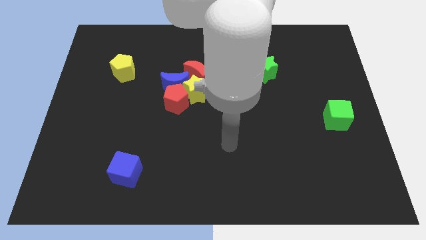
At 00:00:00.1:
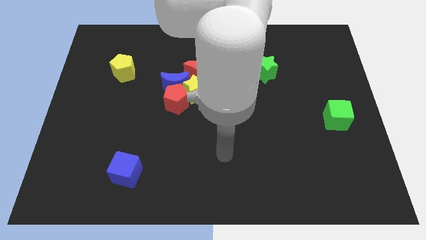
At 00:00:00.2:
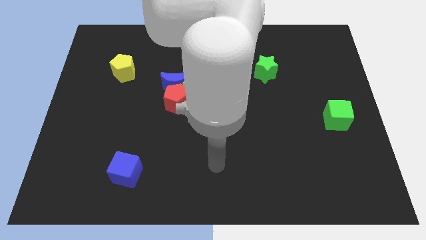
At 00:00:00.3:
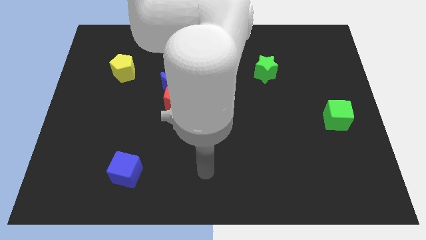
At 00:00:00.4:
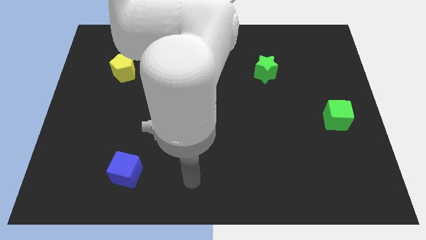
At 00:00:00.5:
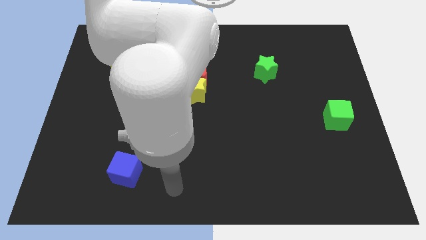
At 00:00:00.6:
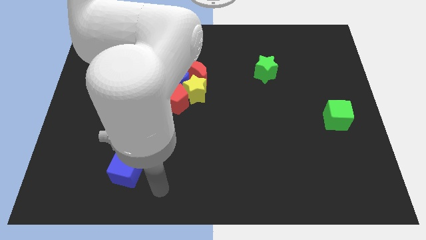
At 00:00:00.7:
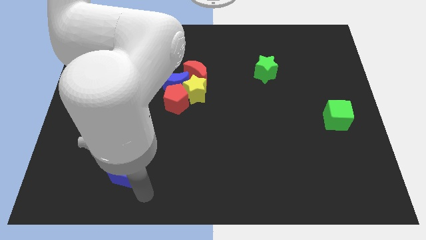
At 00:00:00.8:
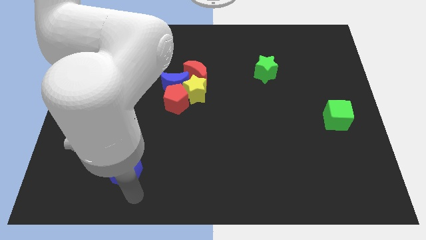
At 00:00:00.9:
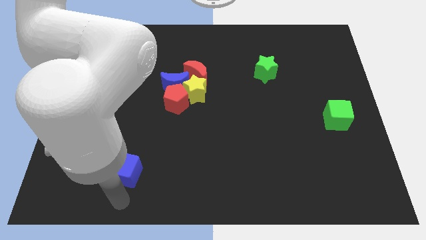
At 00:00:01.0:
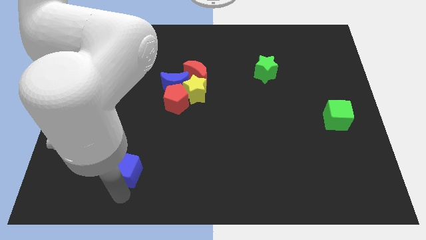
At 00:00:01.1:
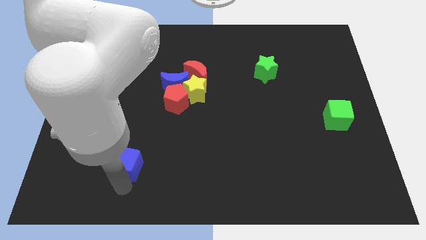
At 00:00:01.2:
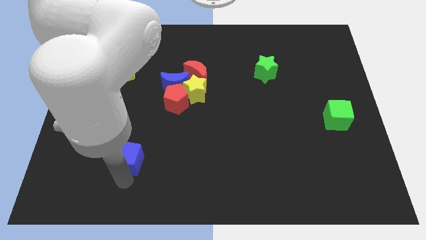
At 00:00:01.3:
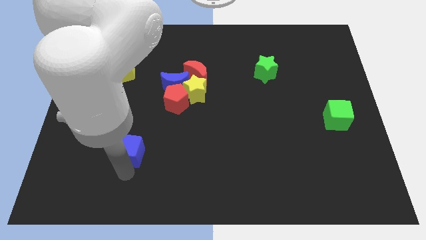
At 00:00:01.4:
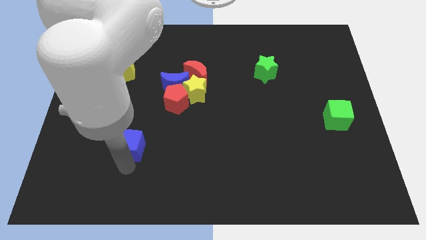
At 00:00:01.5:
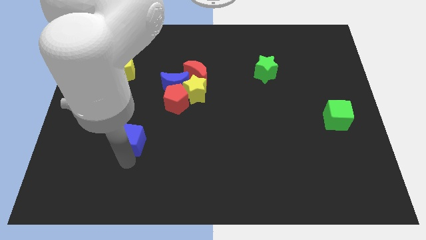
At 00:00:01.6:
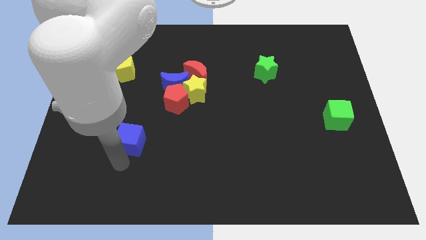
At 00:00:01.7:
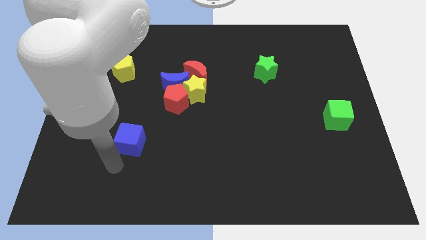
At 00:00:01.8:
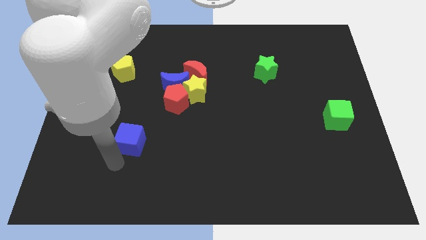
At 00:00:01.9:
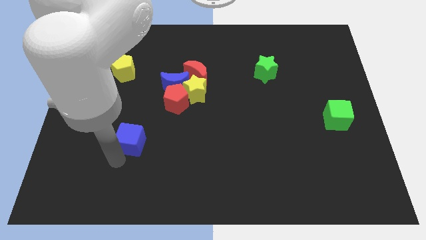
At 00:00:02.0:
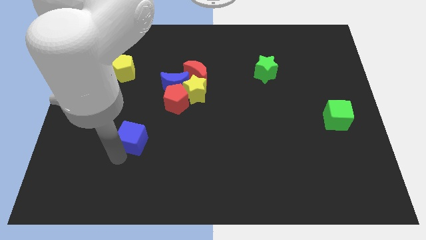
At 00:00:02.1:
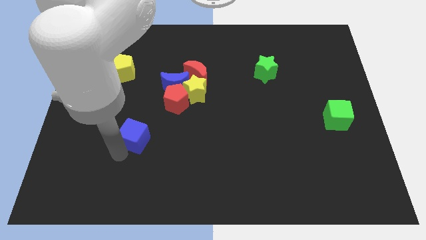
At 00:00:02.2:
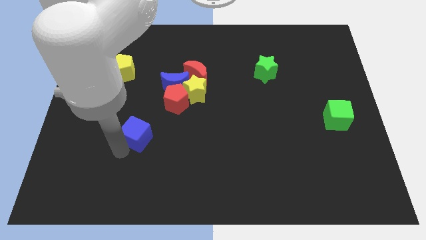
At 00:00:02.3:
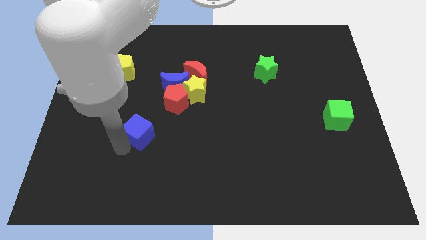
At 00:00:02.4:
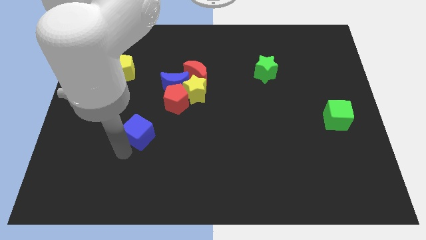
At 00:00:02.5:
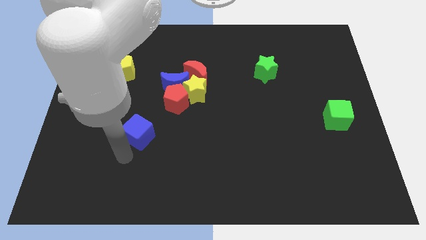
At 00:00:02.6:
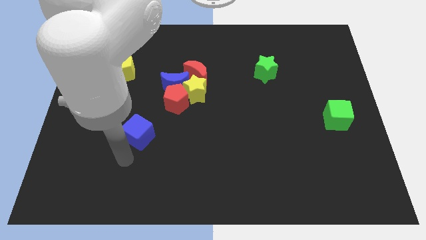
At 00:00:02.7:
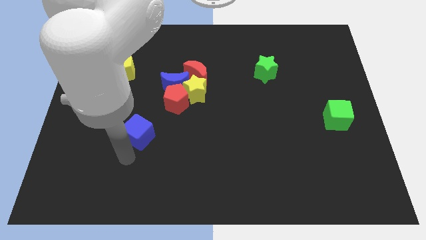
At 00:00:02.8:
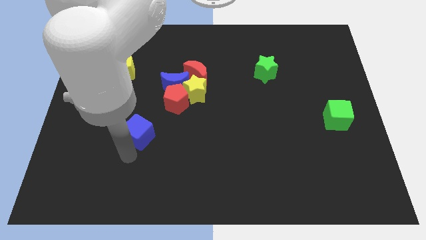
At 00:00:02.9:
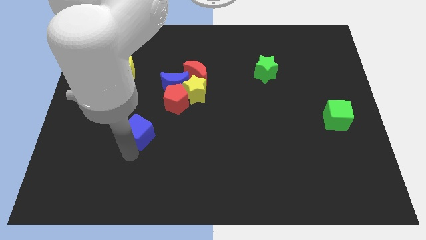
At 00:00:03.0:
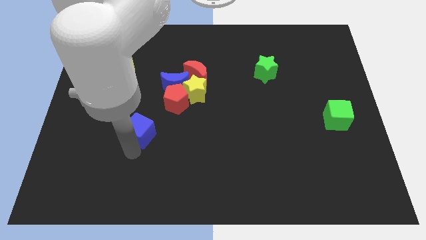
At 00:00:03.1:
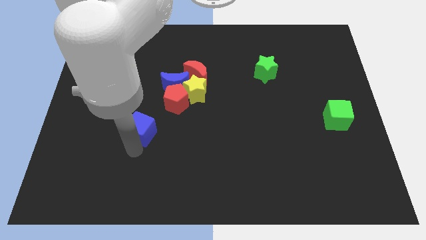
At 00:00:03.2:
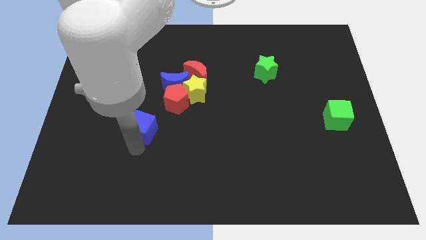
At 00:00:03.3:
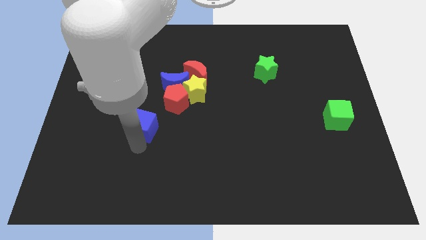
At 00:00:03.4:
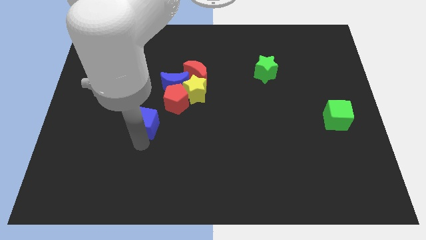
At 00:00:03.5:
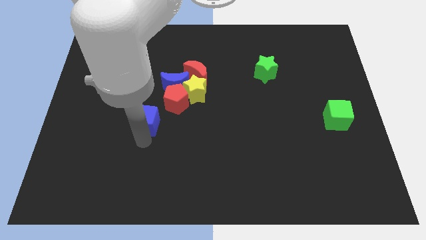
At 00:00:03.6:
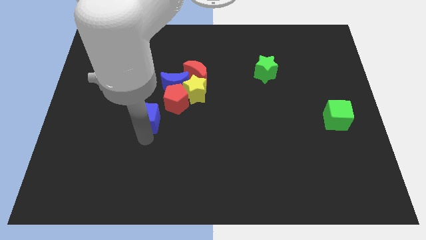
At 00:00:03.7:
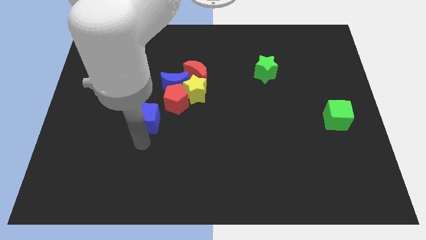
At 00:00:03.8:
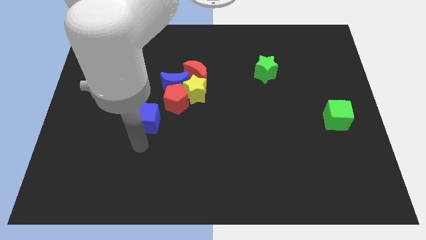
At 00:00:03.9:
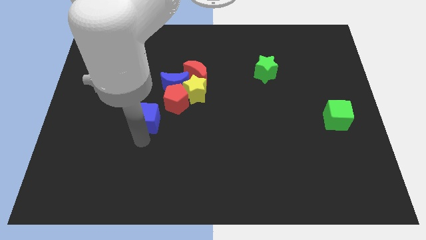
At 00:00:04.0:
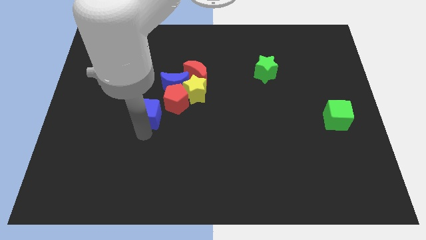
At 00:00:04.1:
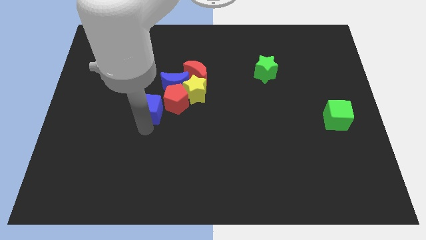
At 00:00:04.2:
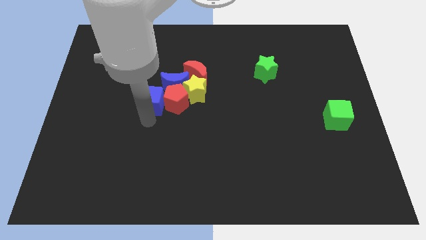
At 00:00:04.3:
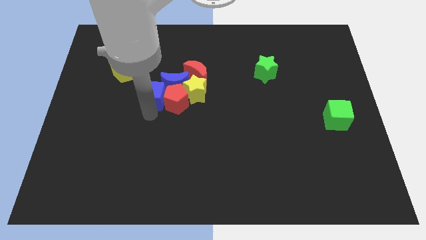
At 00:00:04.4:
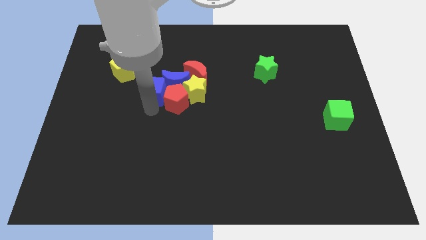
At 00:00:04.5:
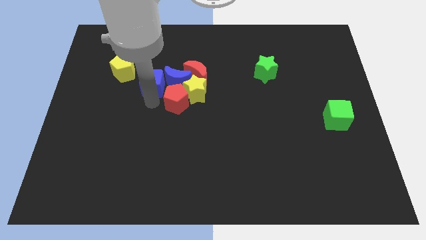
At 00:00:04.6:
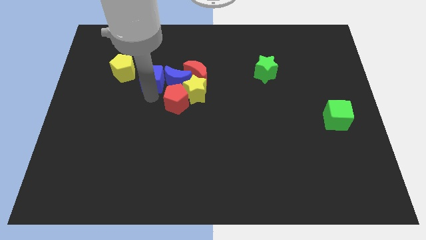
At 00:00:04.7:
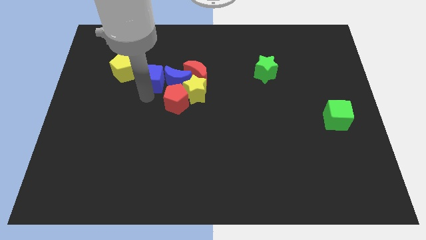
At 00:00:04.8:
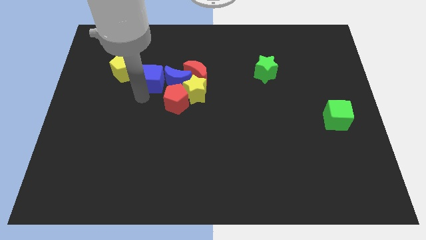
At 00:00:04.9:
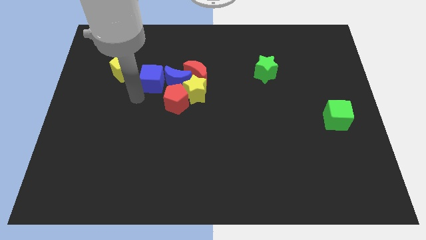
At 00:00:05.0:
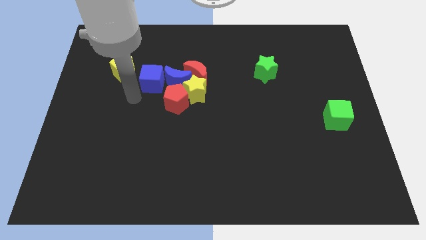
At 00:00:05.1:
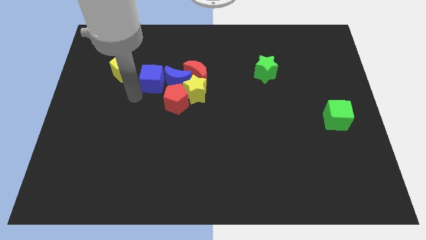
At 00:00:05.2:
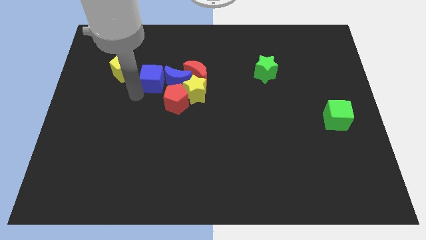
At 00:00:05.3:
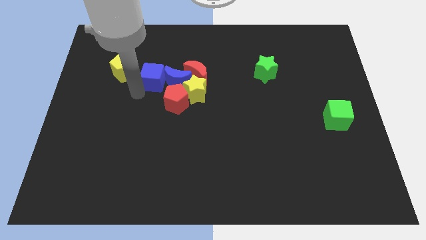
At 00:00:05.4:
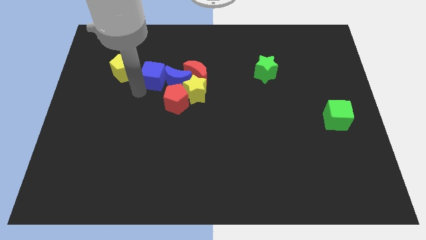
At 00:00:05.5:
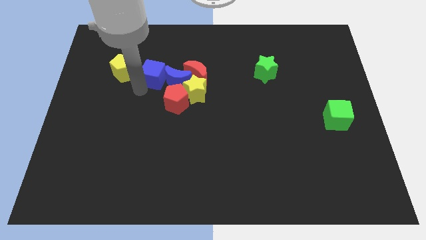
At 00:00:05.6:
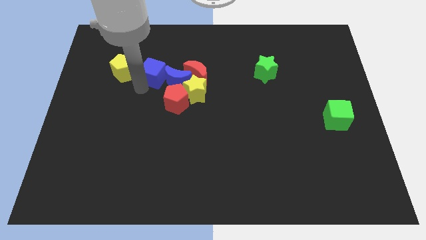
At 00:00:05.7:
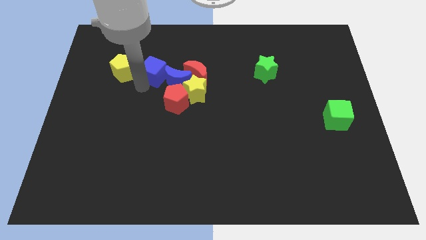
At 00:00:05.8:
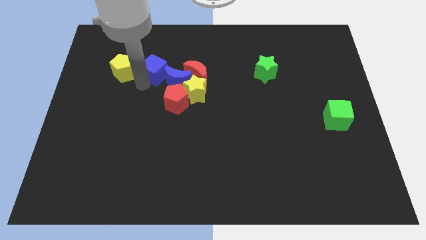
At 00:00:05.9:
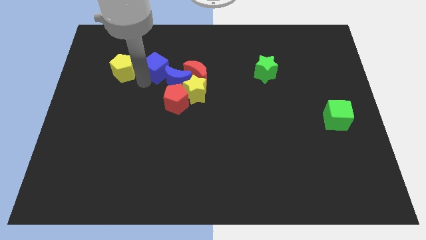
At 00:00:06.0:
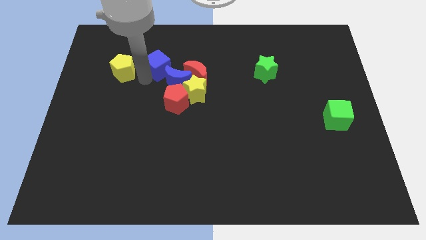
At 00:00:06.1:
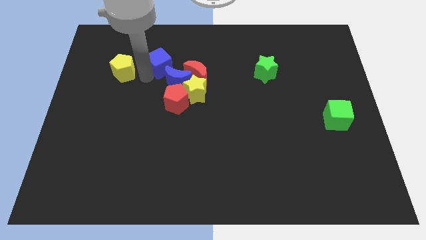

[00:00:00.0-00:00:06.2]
move the blue cube to the top of the blue moon
